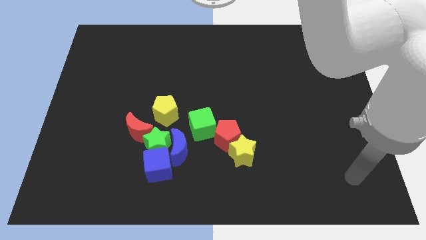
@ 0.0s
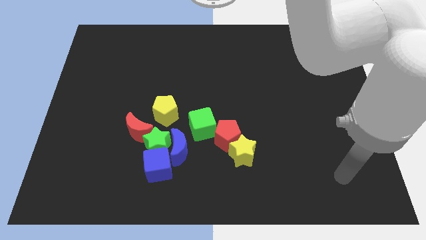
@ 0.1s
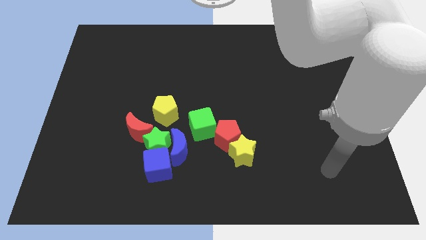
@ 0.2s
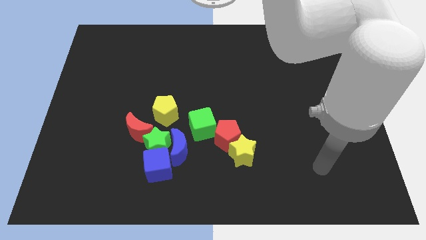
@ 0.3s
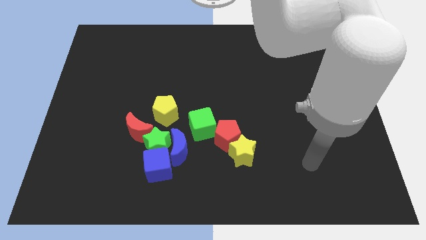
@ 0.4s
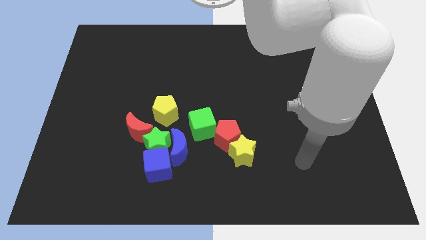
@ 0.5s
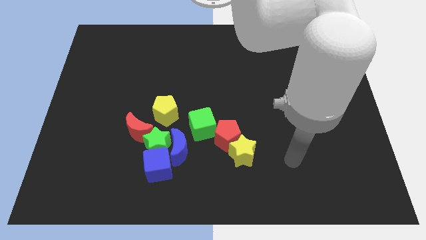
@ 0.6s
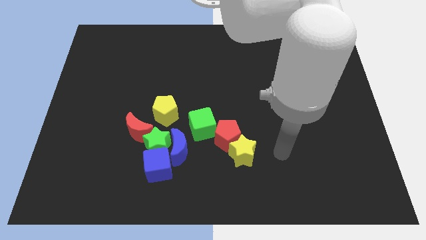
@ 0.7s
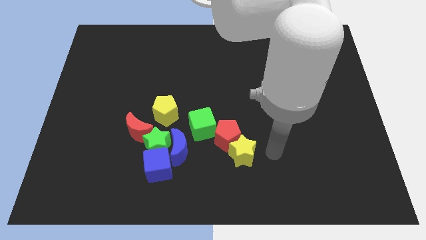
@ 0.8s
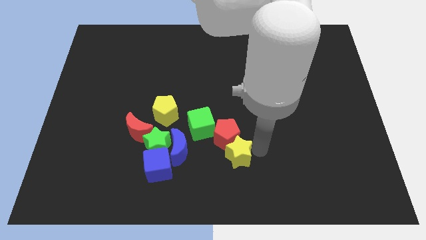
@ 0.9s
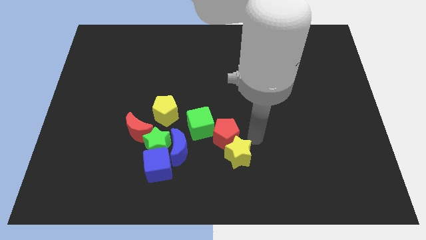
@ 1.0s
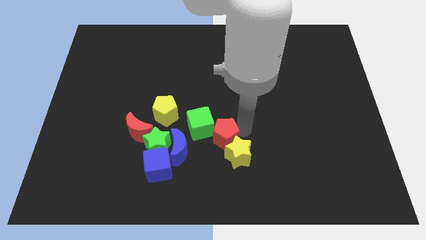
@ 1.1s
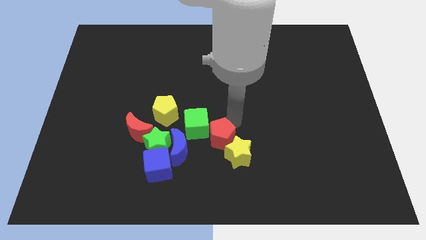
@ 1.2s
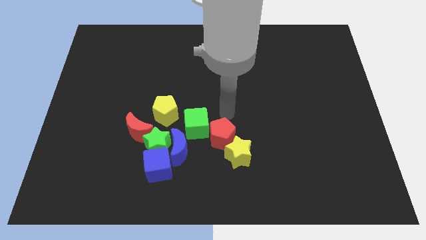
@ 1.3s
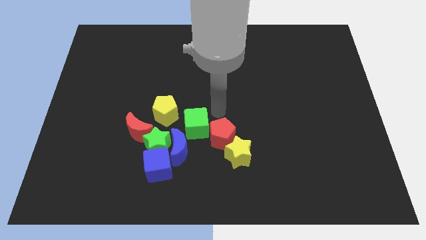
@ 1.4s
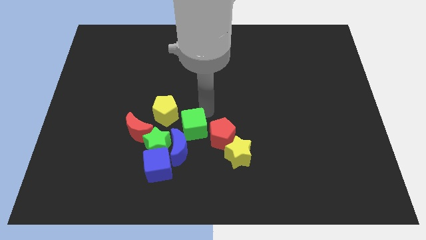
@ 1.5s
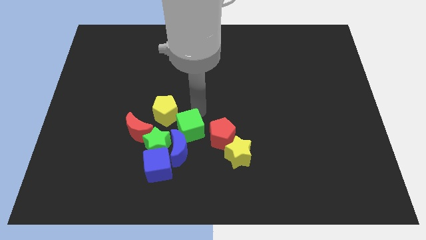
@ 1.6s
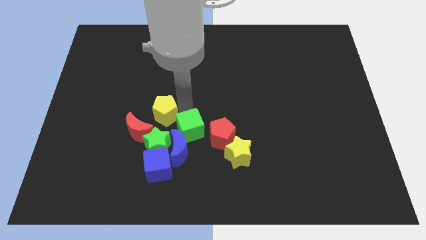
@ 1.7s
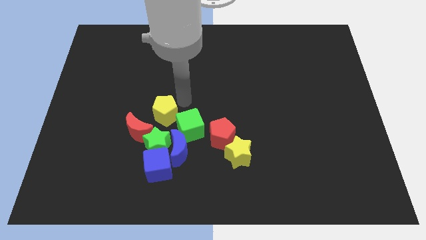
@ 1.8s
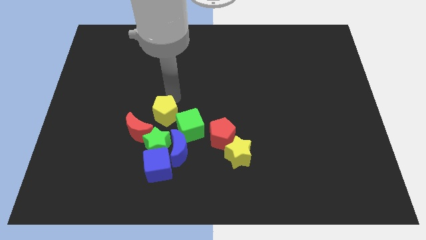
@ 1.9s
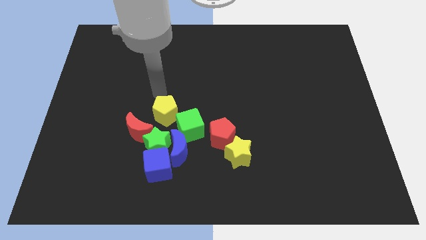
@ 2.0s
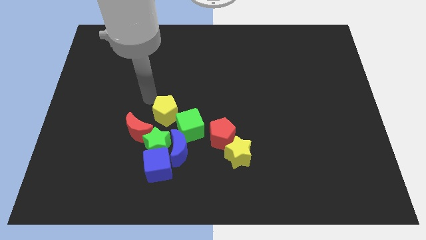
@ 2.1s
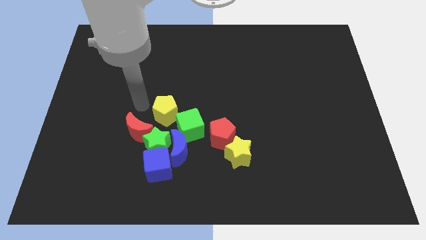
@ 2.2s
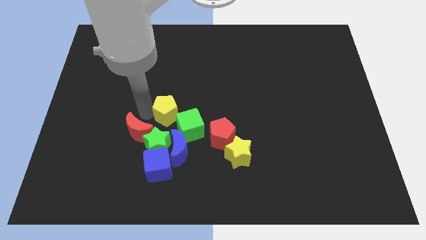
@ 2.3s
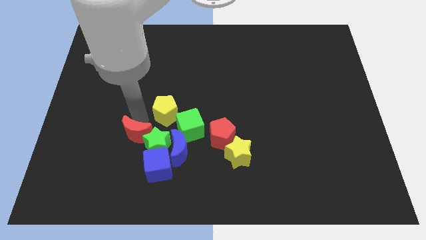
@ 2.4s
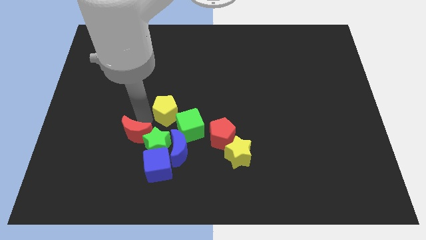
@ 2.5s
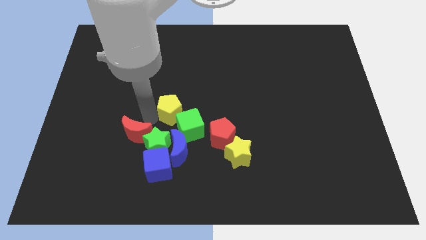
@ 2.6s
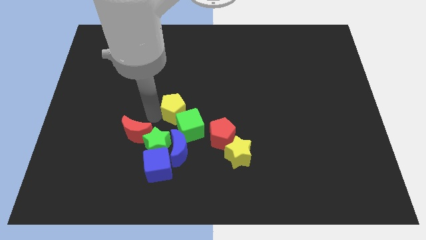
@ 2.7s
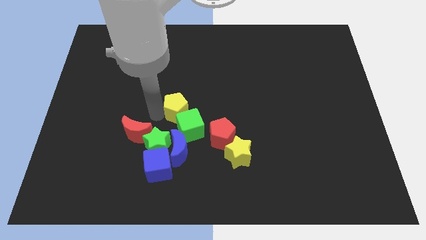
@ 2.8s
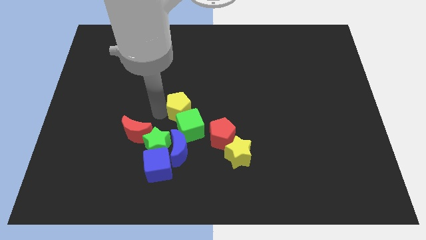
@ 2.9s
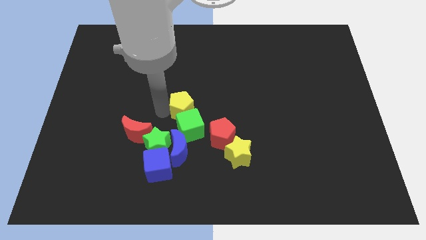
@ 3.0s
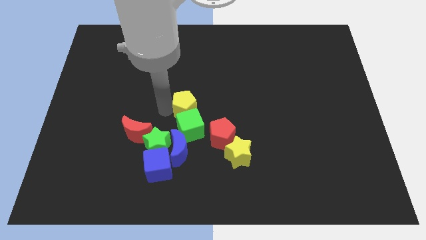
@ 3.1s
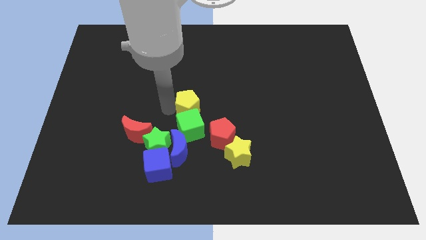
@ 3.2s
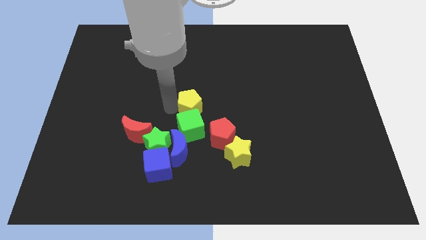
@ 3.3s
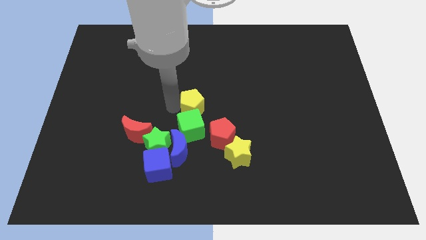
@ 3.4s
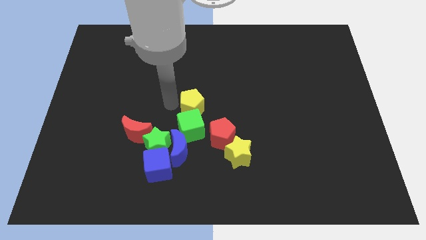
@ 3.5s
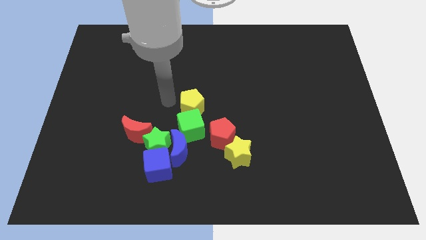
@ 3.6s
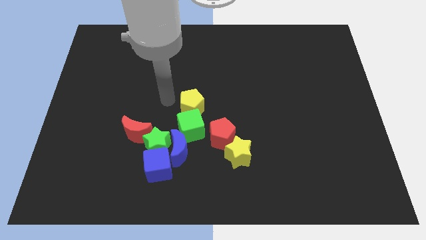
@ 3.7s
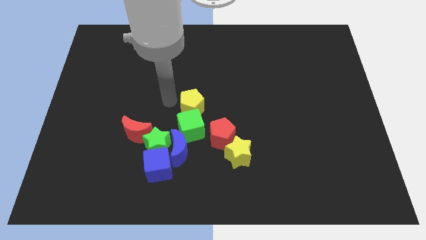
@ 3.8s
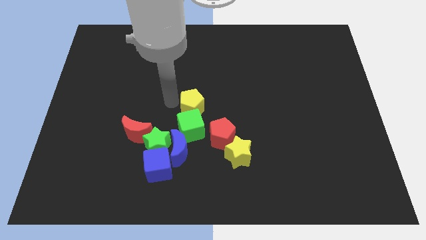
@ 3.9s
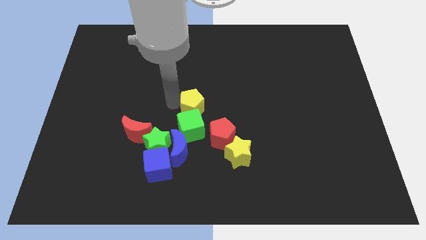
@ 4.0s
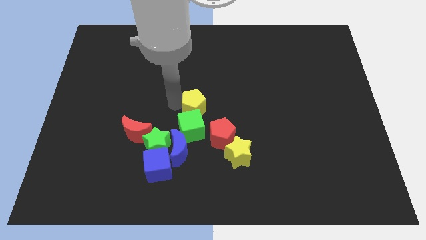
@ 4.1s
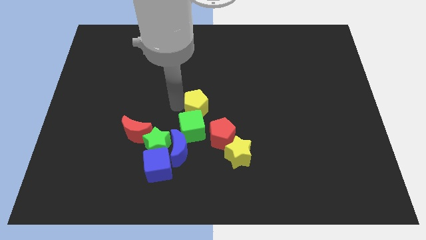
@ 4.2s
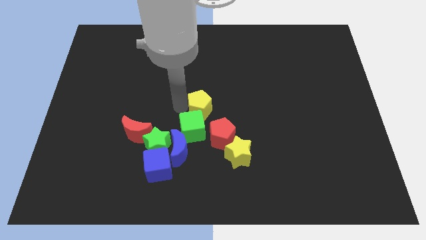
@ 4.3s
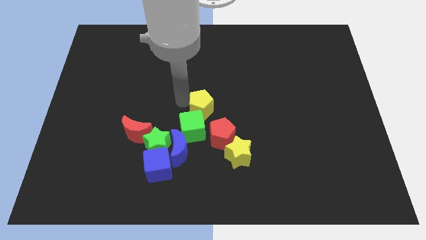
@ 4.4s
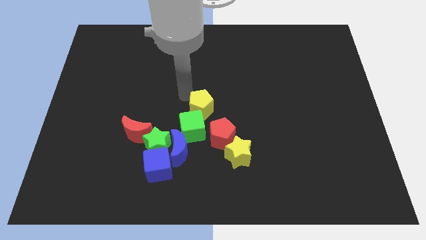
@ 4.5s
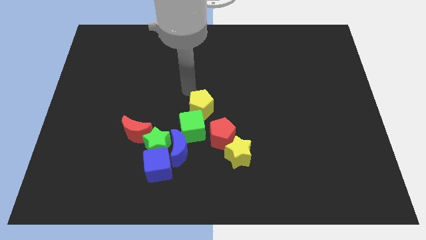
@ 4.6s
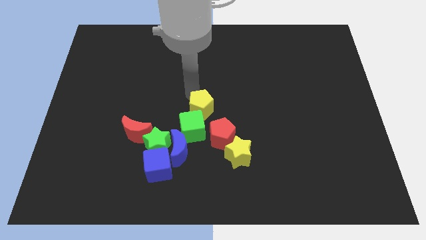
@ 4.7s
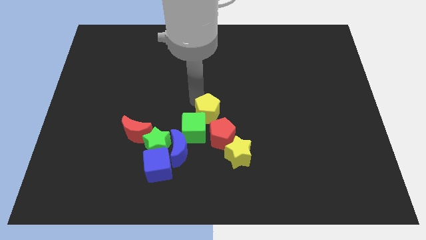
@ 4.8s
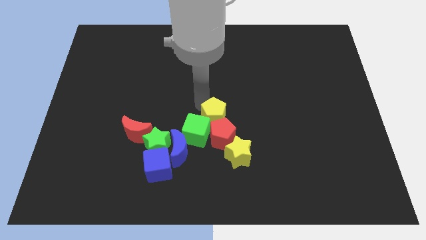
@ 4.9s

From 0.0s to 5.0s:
move the yellow pentagon next to the red pentagon

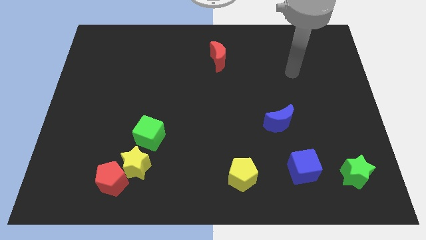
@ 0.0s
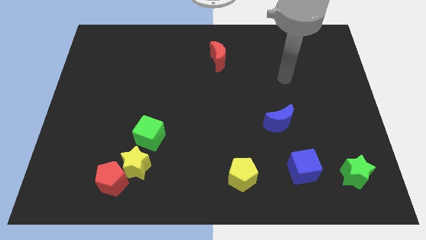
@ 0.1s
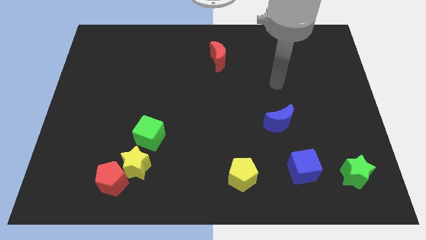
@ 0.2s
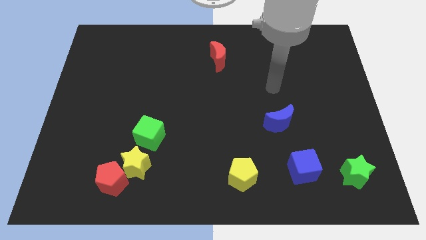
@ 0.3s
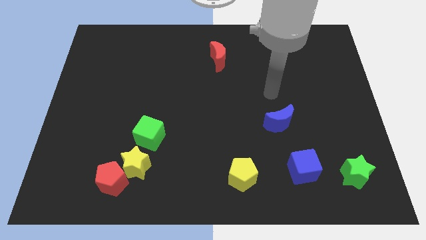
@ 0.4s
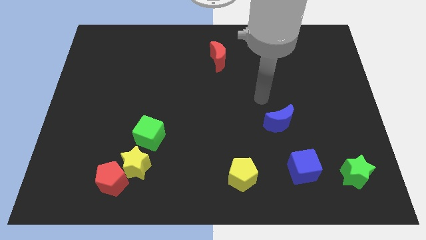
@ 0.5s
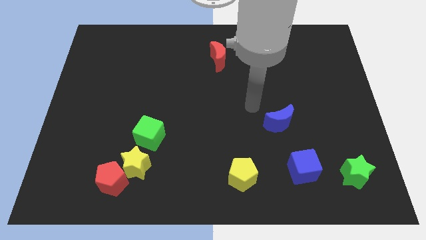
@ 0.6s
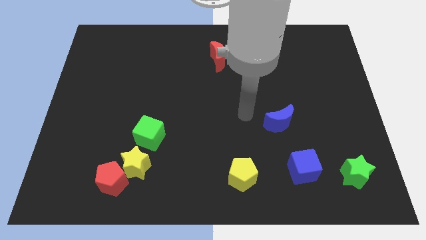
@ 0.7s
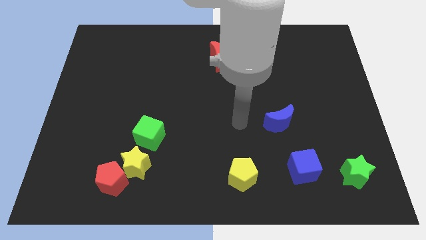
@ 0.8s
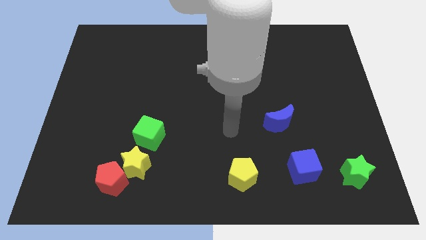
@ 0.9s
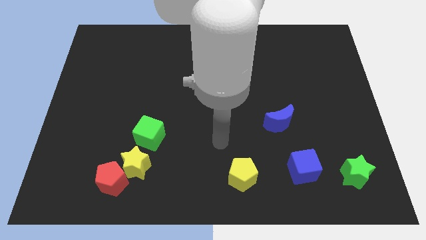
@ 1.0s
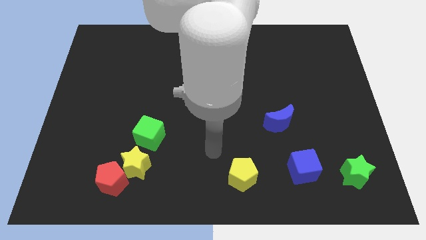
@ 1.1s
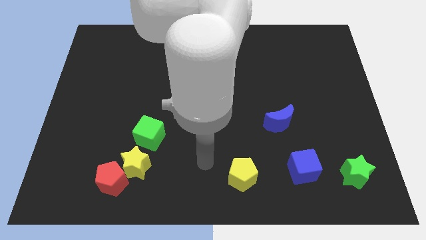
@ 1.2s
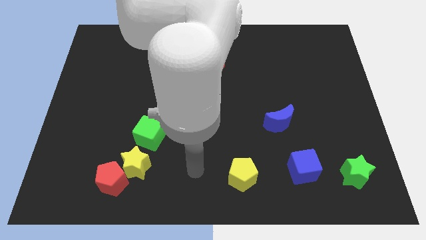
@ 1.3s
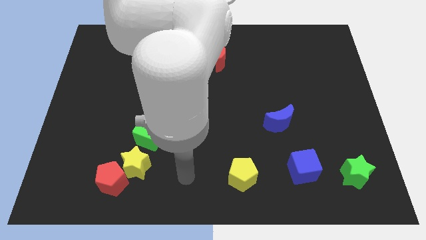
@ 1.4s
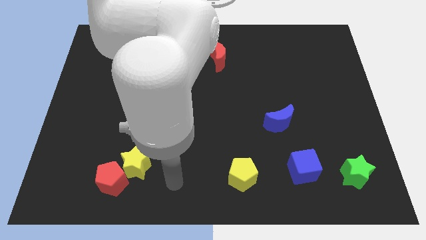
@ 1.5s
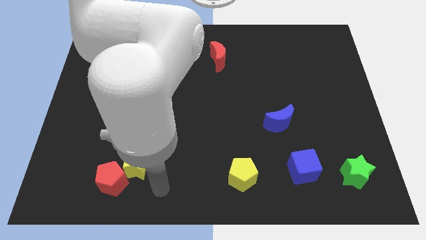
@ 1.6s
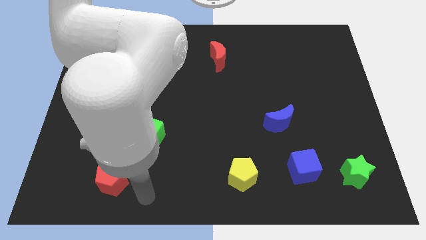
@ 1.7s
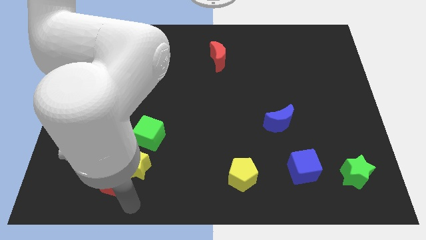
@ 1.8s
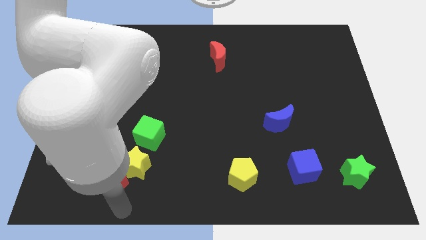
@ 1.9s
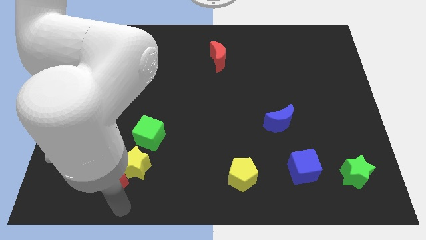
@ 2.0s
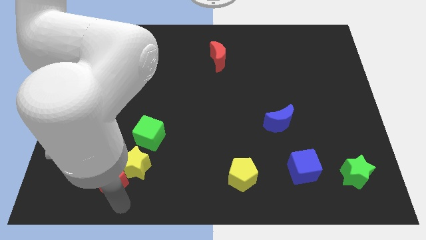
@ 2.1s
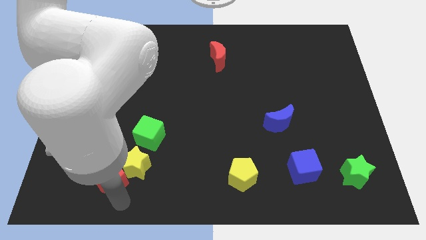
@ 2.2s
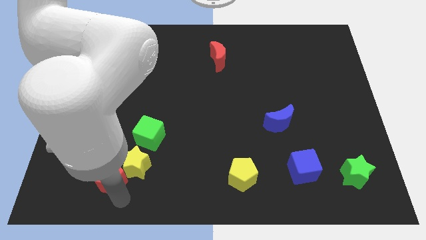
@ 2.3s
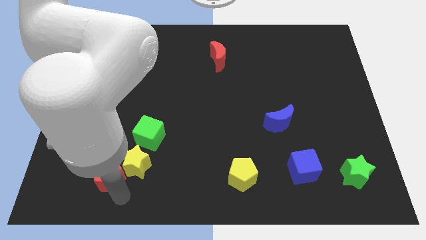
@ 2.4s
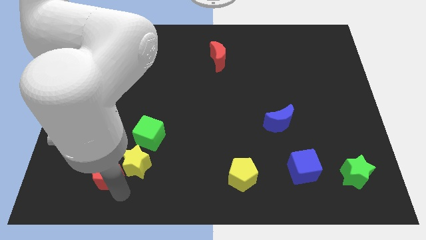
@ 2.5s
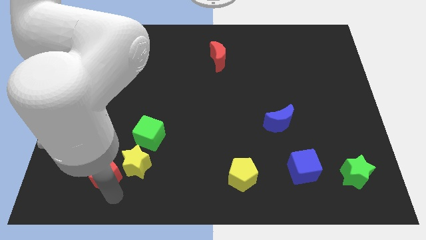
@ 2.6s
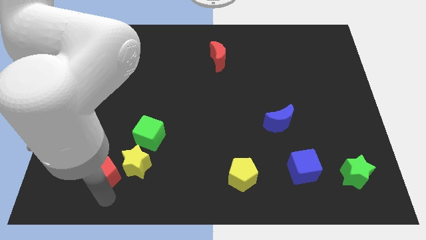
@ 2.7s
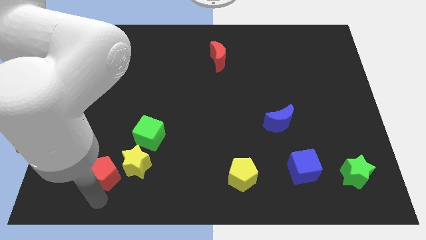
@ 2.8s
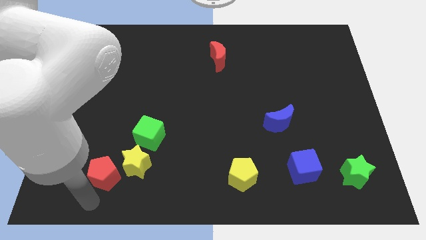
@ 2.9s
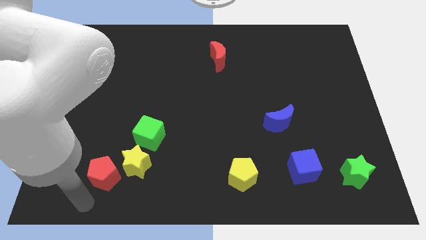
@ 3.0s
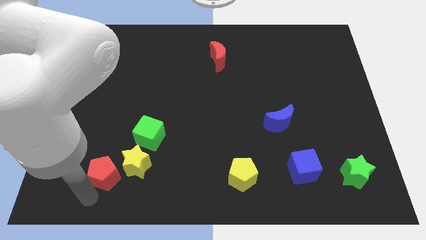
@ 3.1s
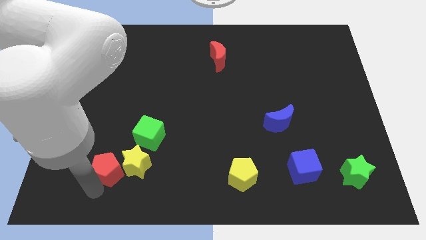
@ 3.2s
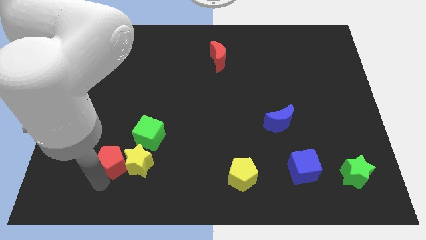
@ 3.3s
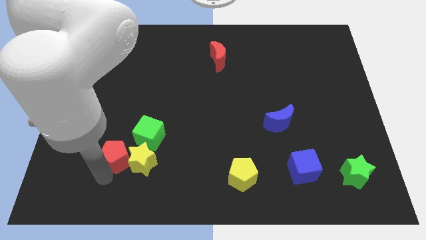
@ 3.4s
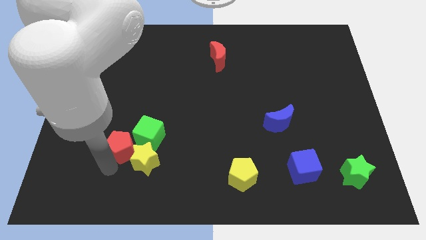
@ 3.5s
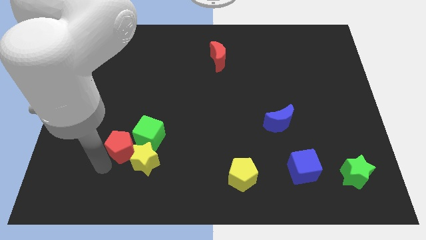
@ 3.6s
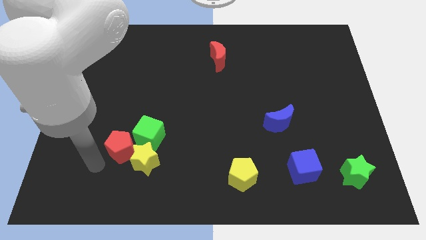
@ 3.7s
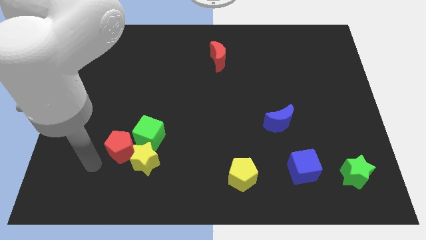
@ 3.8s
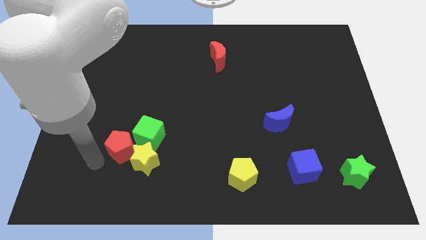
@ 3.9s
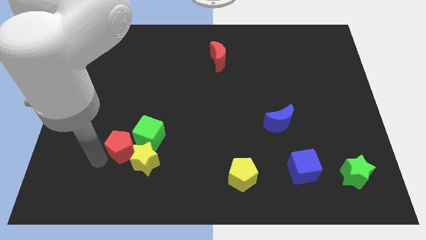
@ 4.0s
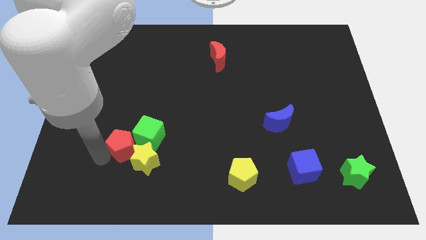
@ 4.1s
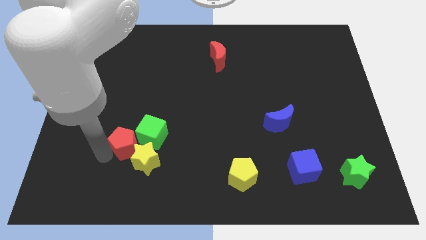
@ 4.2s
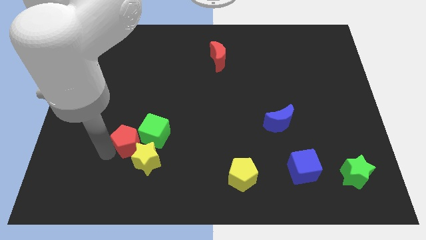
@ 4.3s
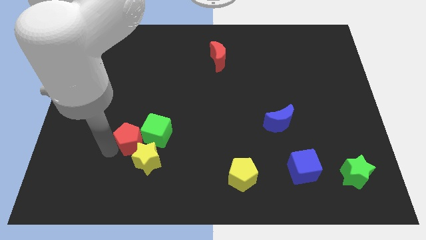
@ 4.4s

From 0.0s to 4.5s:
slide the red pentagon next to the green cube
